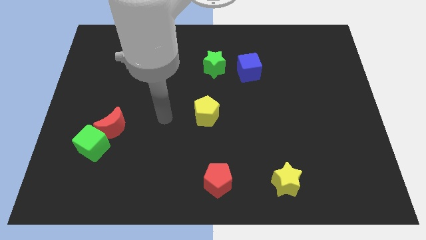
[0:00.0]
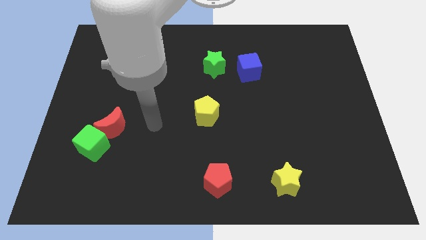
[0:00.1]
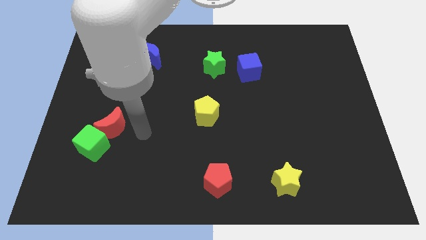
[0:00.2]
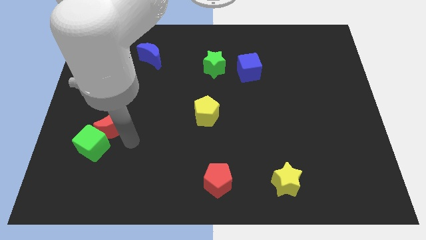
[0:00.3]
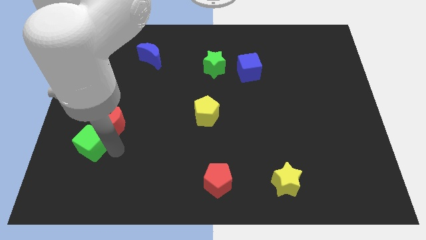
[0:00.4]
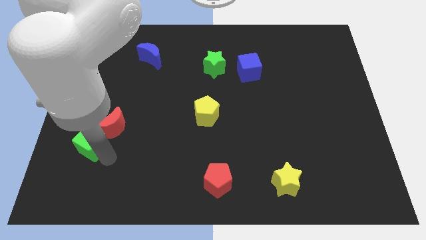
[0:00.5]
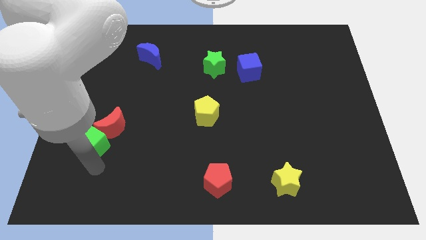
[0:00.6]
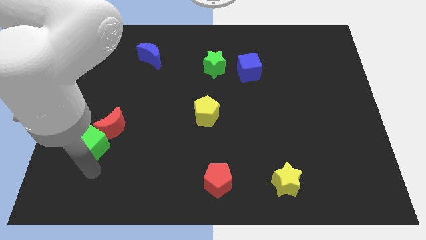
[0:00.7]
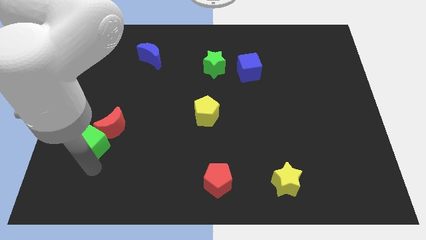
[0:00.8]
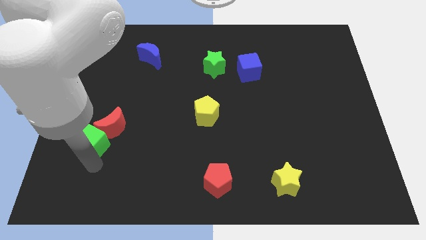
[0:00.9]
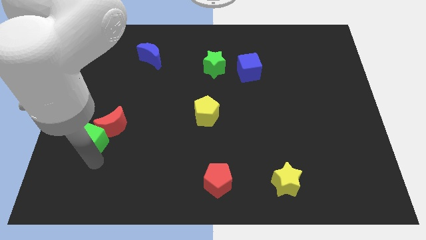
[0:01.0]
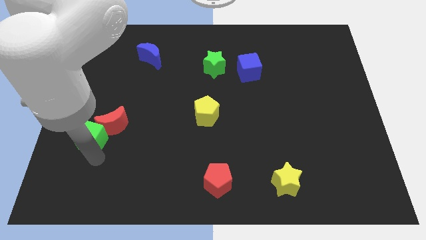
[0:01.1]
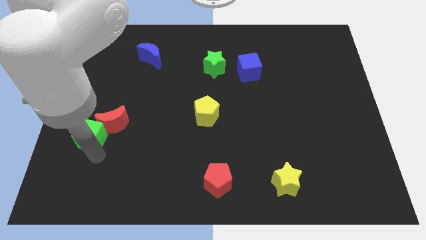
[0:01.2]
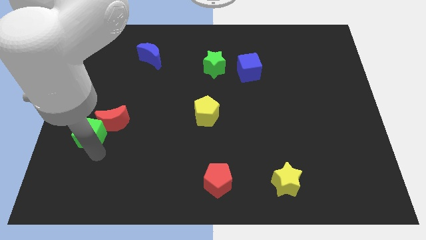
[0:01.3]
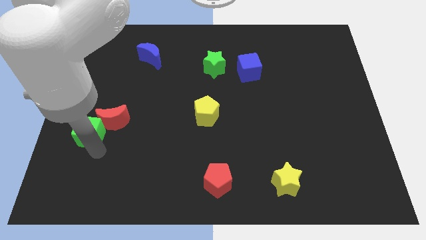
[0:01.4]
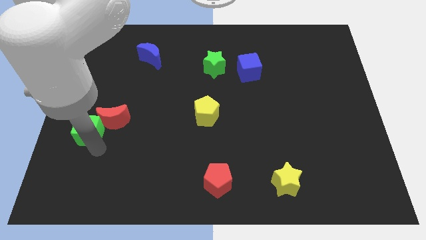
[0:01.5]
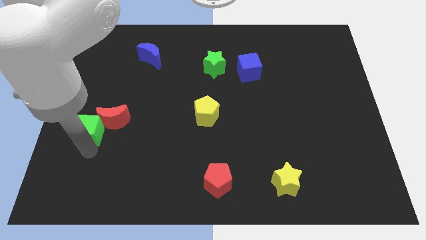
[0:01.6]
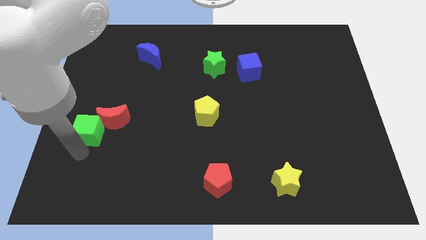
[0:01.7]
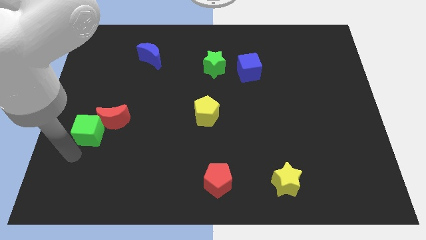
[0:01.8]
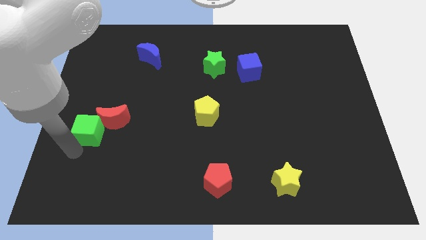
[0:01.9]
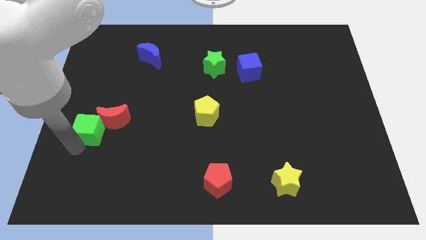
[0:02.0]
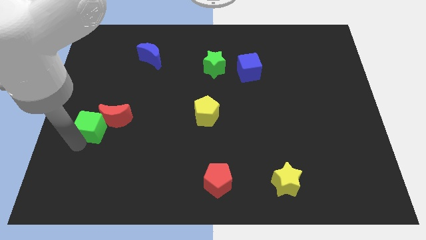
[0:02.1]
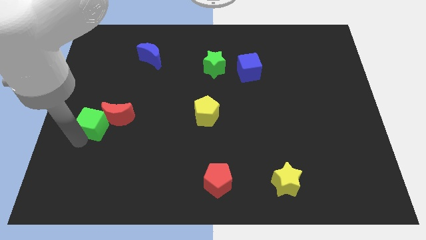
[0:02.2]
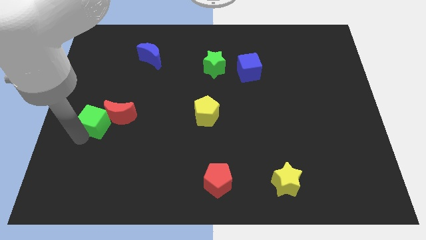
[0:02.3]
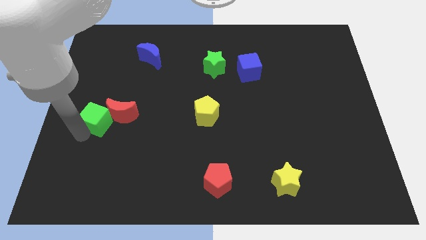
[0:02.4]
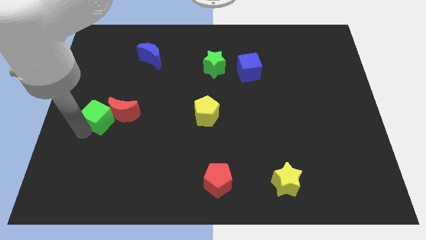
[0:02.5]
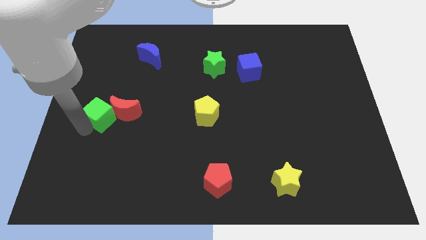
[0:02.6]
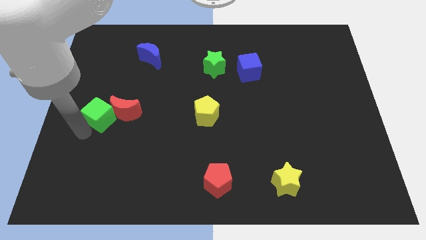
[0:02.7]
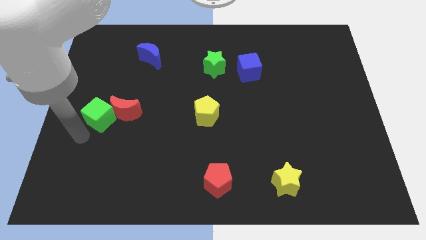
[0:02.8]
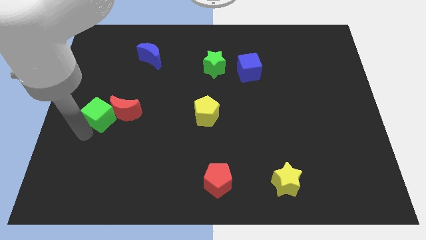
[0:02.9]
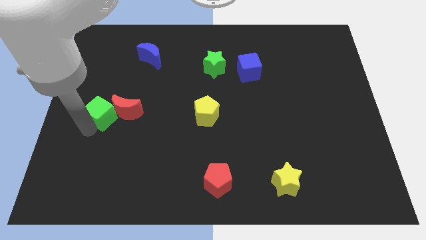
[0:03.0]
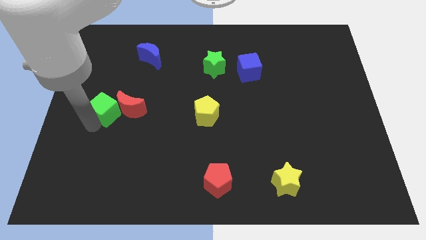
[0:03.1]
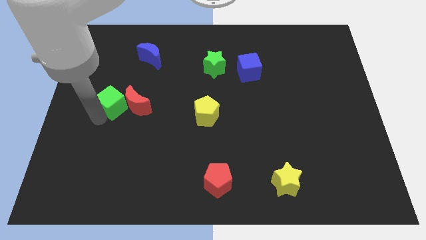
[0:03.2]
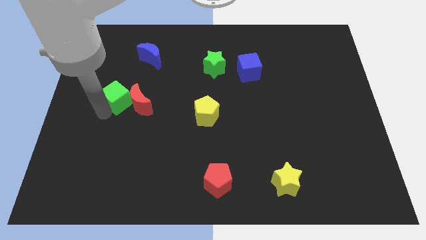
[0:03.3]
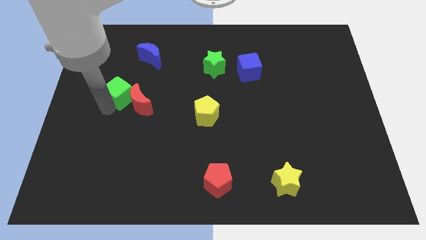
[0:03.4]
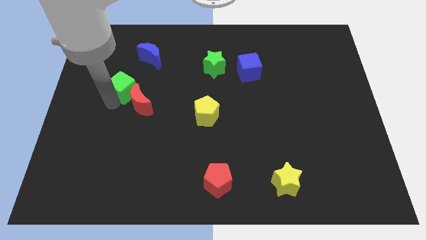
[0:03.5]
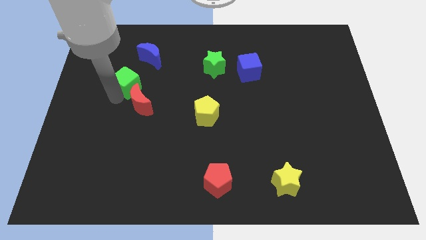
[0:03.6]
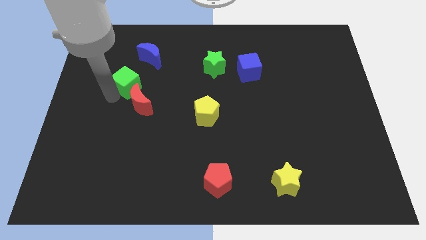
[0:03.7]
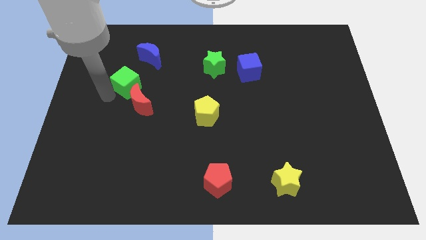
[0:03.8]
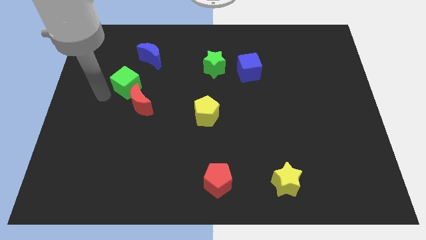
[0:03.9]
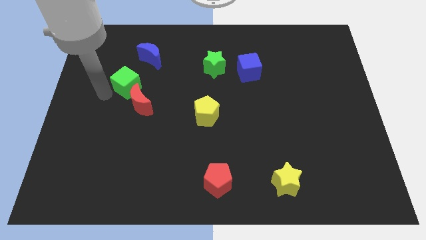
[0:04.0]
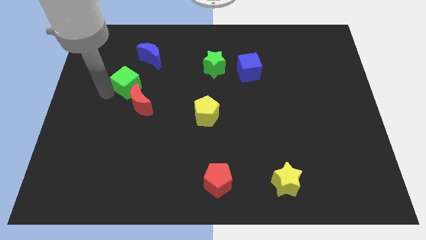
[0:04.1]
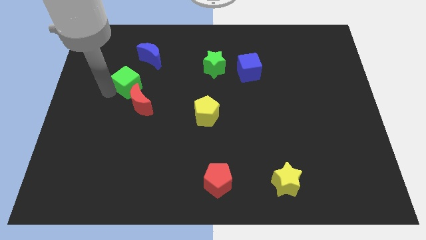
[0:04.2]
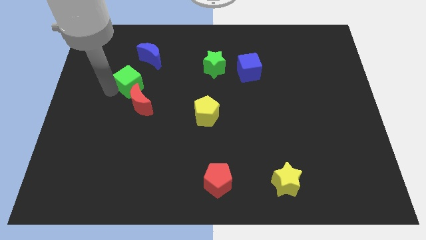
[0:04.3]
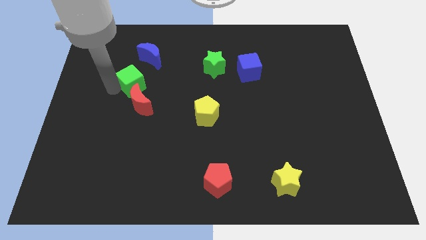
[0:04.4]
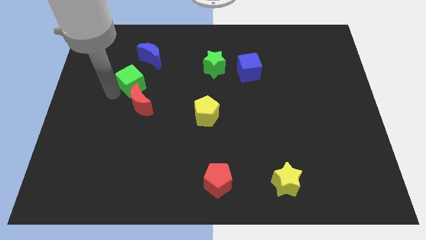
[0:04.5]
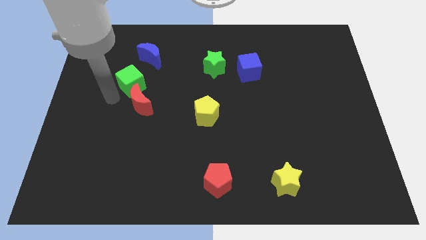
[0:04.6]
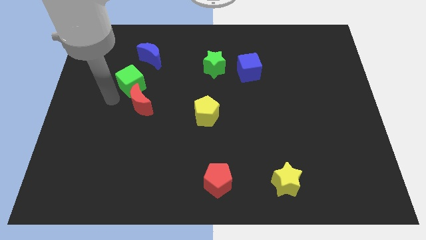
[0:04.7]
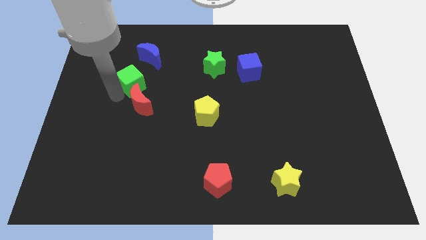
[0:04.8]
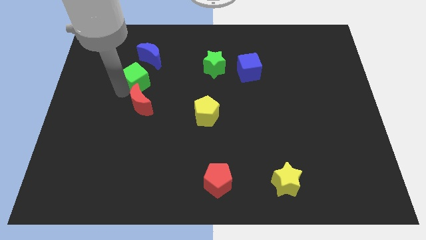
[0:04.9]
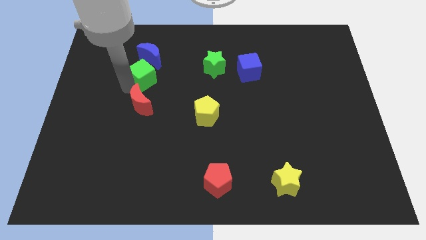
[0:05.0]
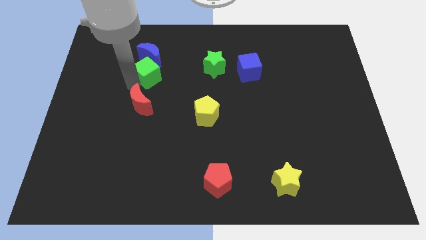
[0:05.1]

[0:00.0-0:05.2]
put the green cube close to the blue moon

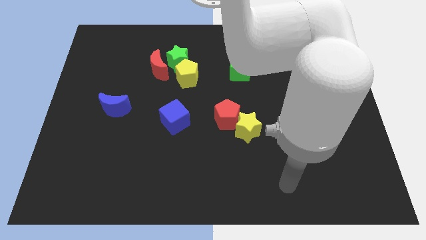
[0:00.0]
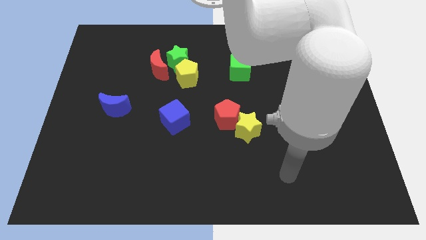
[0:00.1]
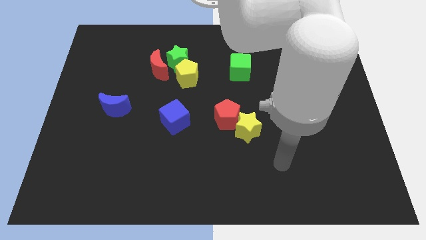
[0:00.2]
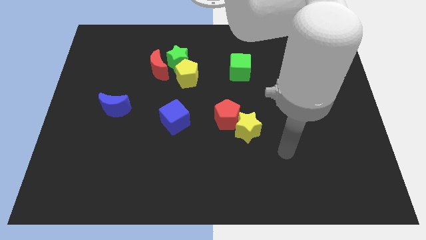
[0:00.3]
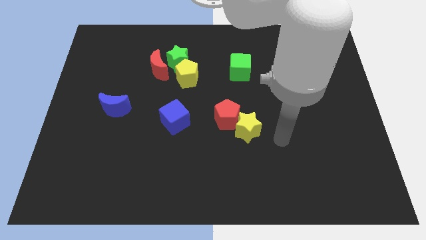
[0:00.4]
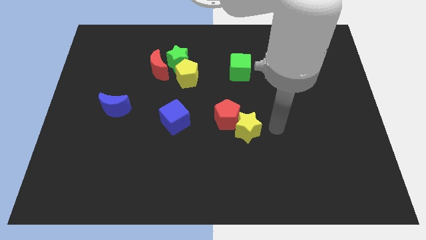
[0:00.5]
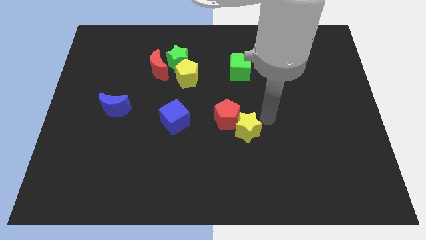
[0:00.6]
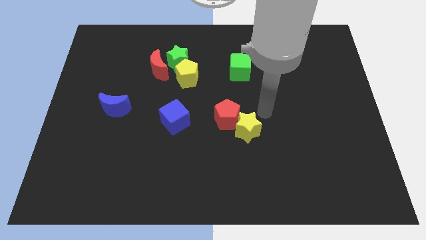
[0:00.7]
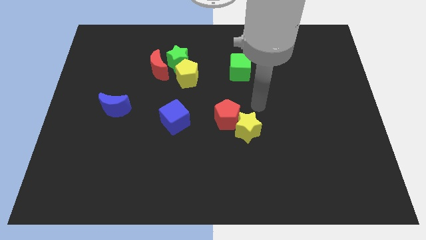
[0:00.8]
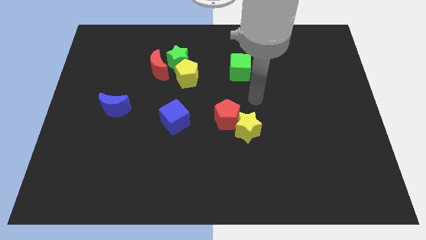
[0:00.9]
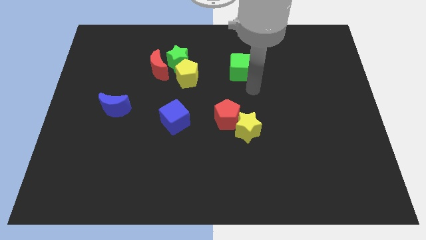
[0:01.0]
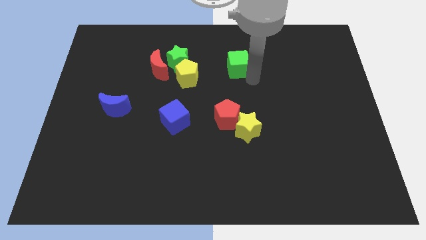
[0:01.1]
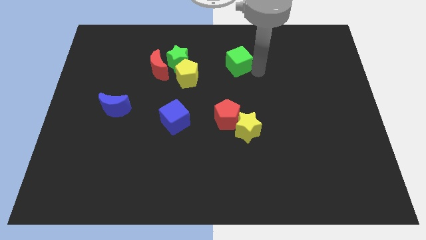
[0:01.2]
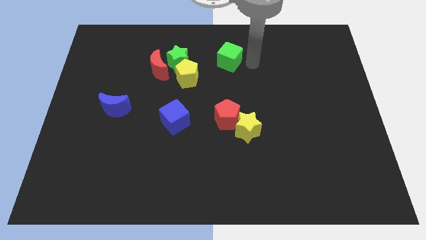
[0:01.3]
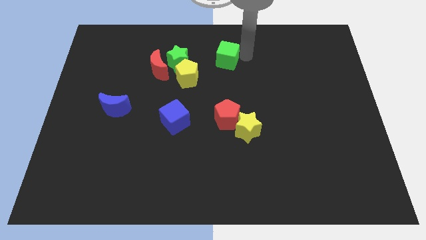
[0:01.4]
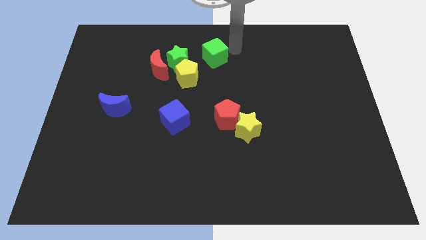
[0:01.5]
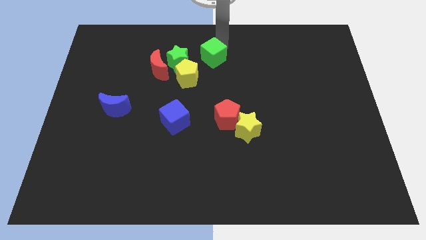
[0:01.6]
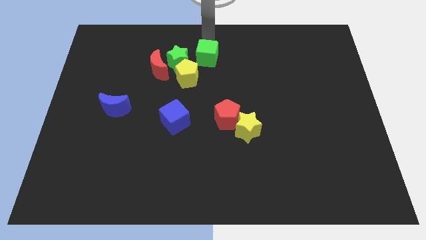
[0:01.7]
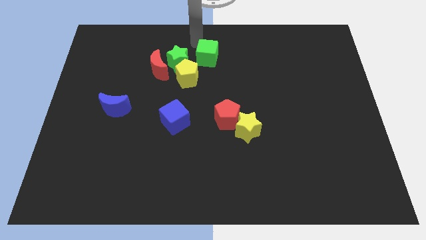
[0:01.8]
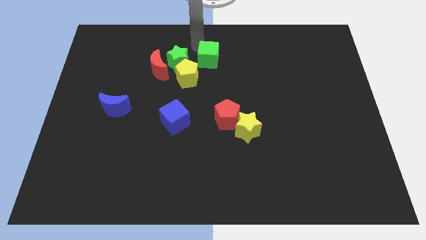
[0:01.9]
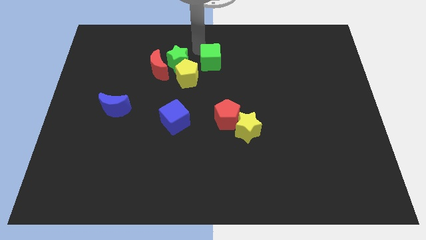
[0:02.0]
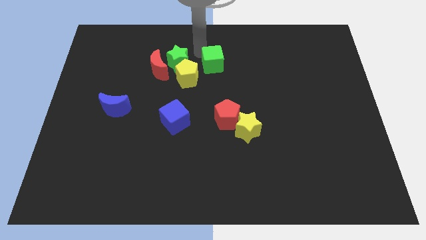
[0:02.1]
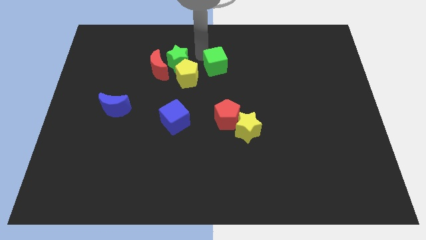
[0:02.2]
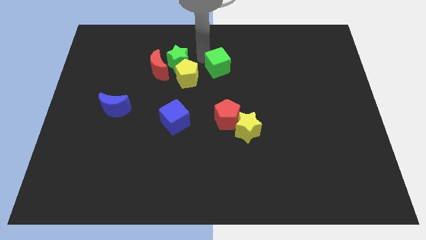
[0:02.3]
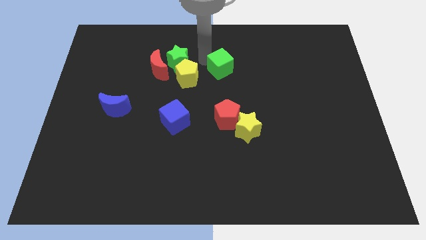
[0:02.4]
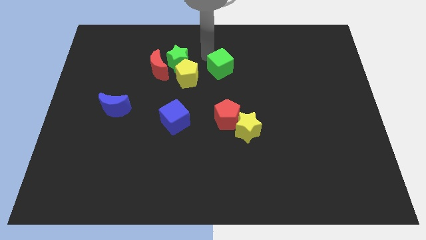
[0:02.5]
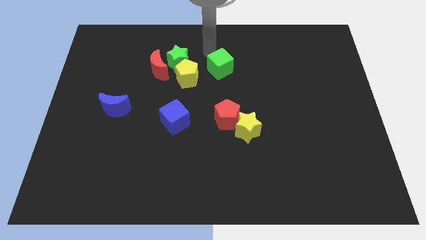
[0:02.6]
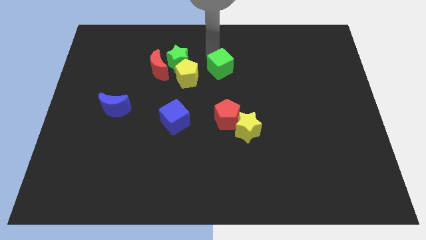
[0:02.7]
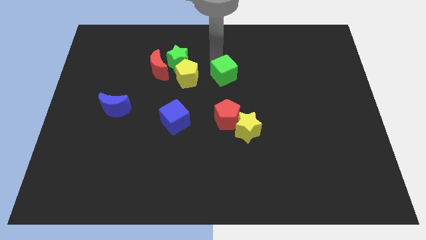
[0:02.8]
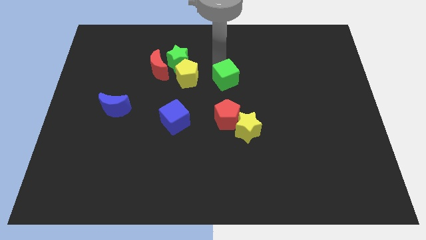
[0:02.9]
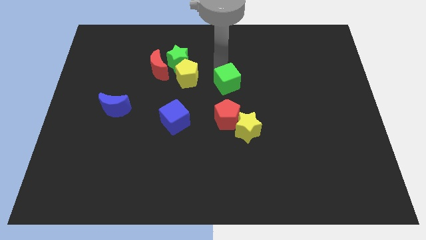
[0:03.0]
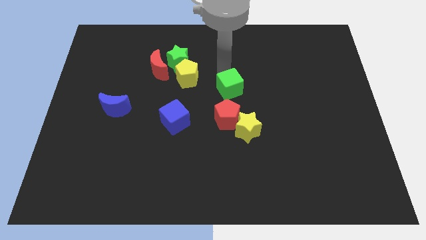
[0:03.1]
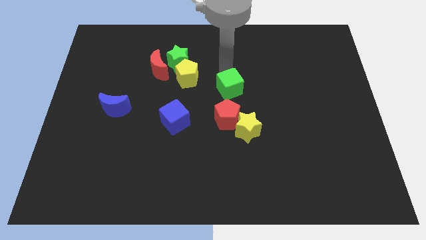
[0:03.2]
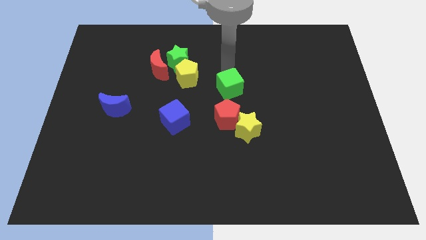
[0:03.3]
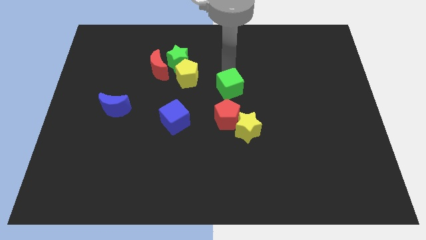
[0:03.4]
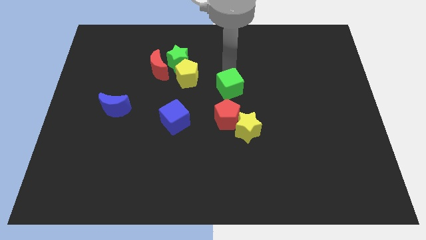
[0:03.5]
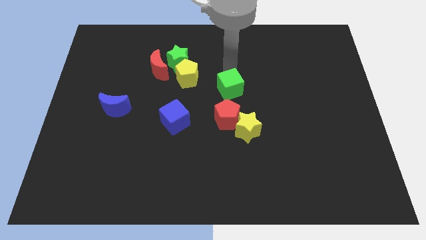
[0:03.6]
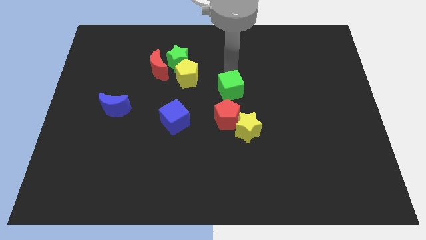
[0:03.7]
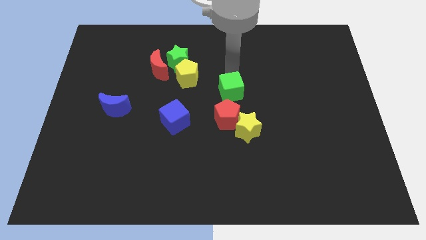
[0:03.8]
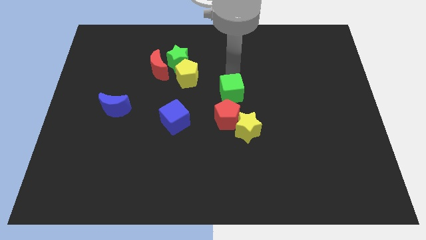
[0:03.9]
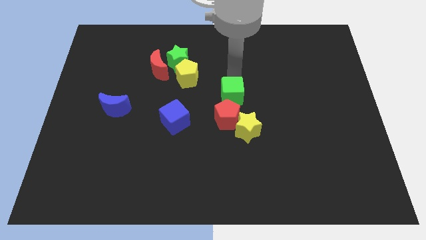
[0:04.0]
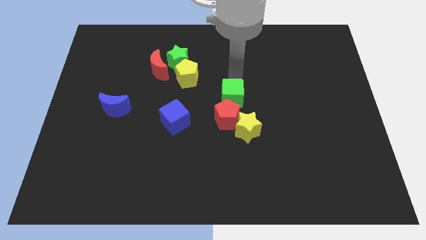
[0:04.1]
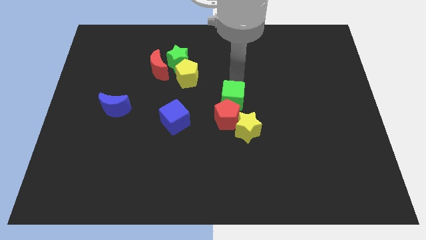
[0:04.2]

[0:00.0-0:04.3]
slide the green cube to the red pentagon
